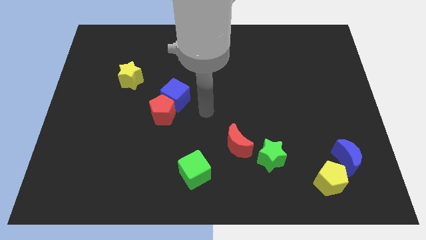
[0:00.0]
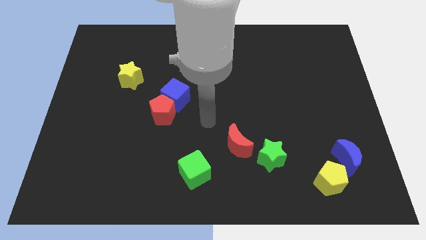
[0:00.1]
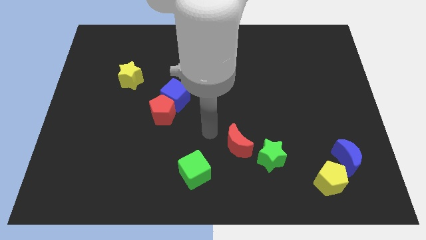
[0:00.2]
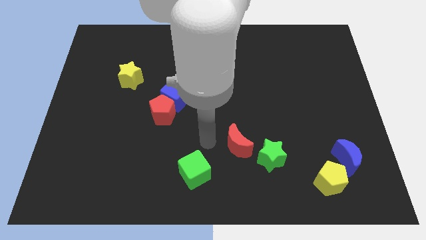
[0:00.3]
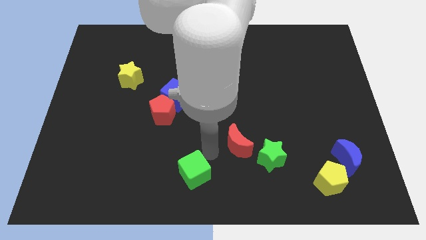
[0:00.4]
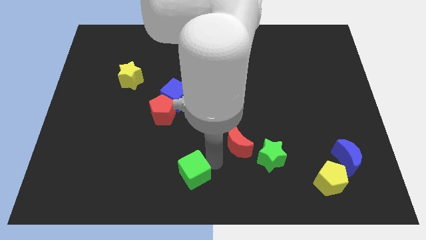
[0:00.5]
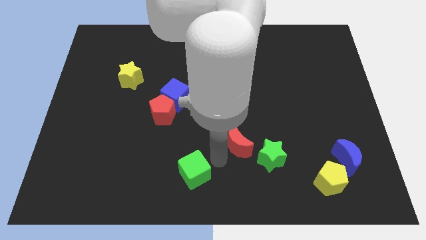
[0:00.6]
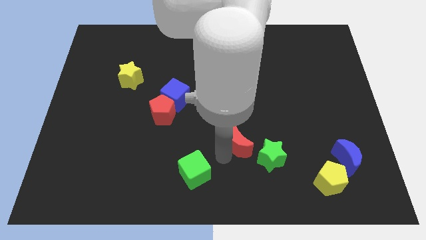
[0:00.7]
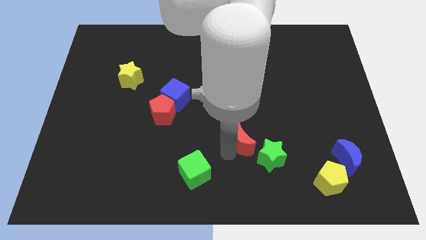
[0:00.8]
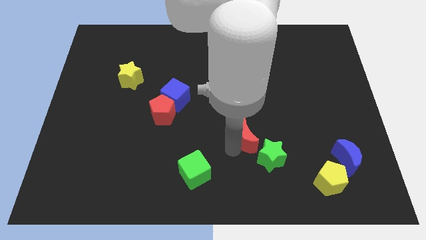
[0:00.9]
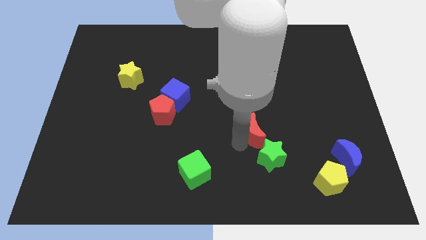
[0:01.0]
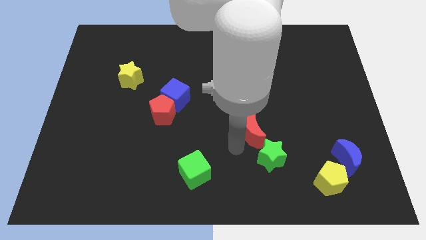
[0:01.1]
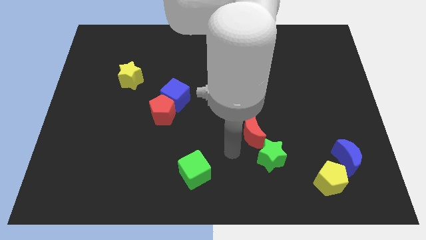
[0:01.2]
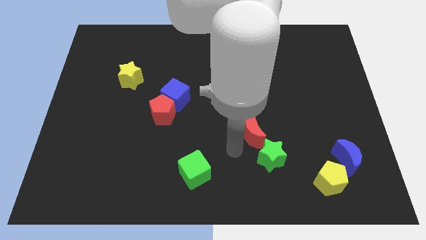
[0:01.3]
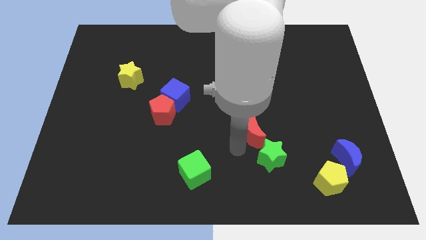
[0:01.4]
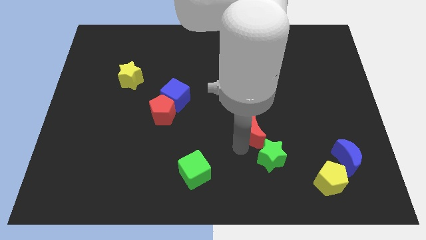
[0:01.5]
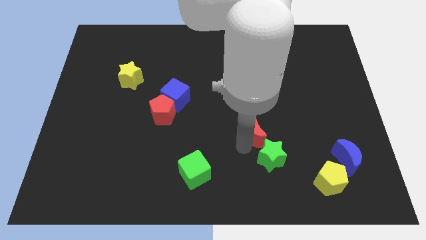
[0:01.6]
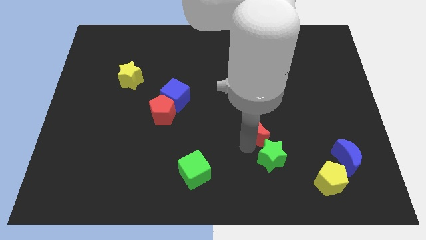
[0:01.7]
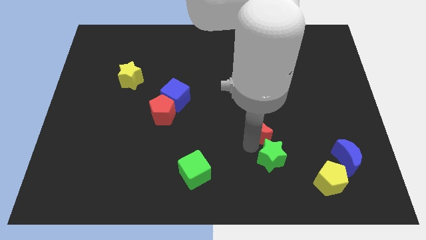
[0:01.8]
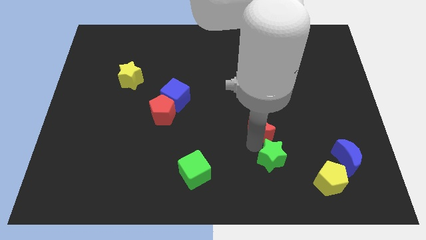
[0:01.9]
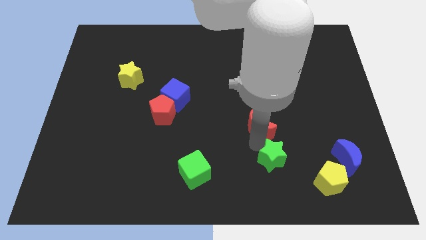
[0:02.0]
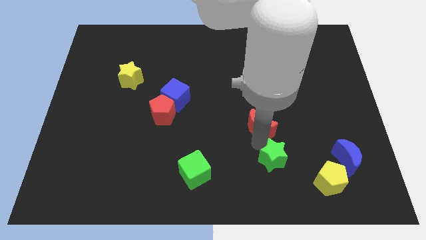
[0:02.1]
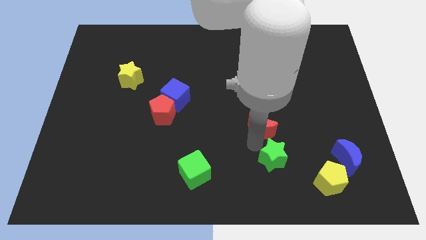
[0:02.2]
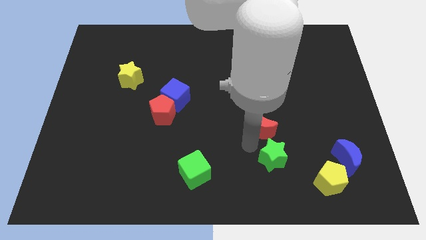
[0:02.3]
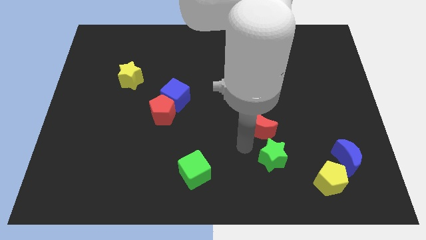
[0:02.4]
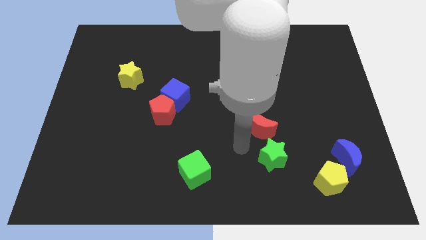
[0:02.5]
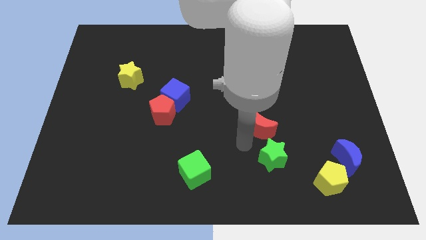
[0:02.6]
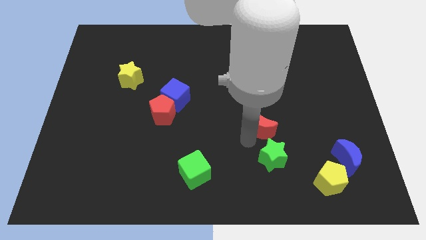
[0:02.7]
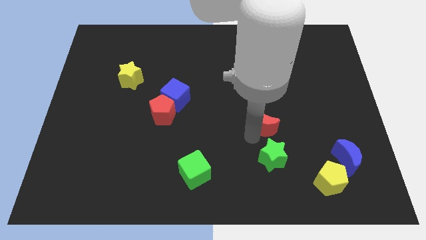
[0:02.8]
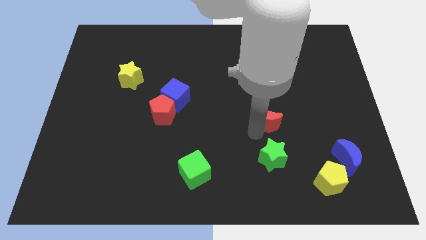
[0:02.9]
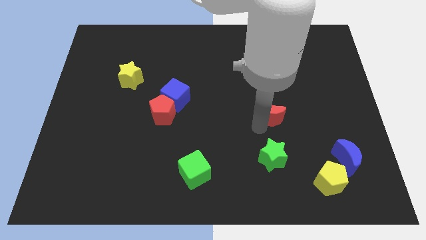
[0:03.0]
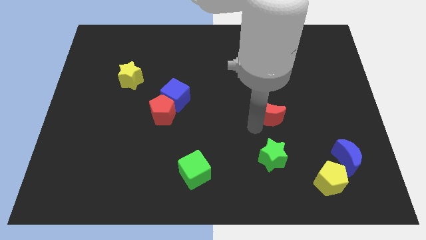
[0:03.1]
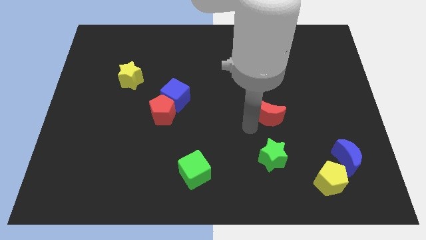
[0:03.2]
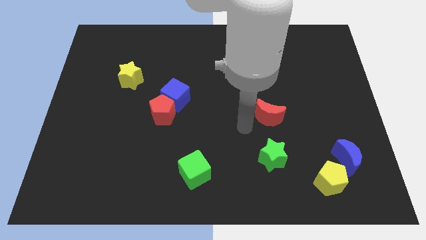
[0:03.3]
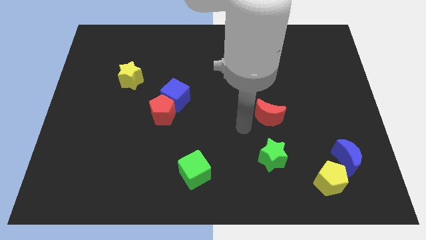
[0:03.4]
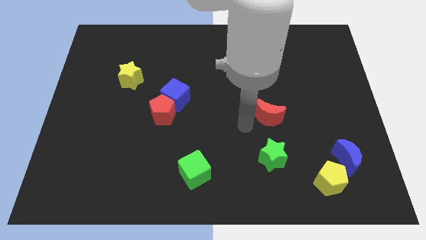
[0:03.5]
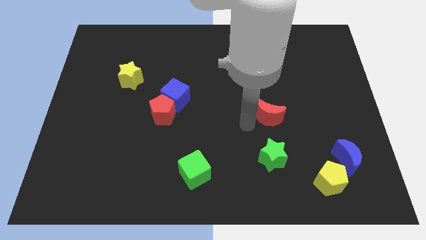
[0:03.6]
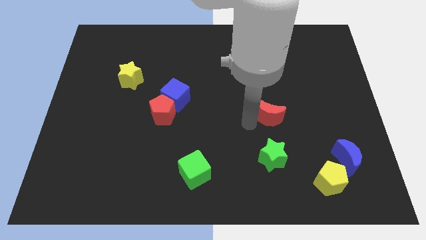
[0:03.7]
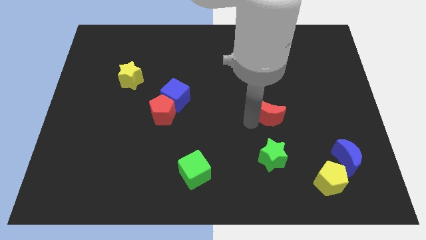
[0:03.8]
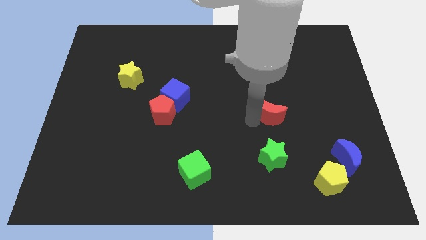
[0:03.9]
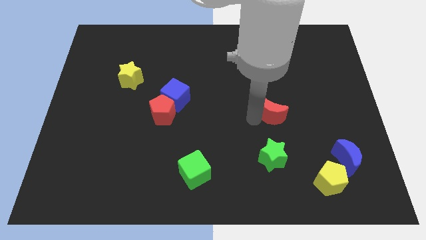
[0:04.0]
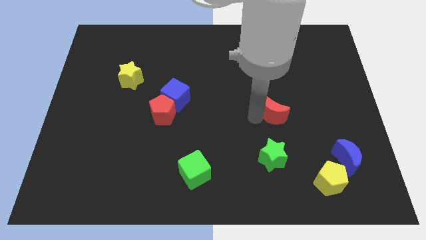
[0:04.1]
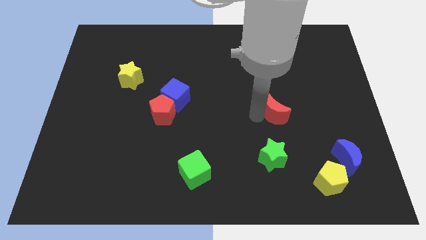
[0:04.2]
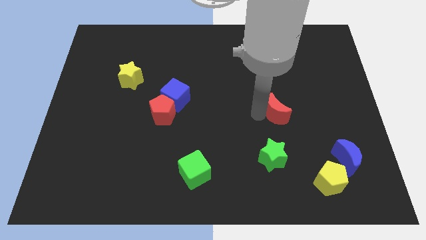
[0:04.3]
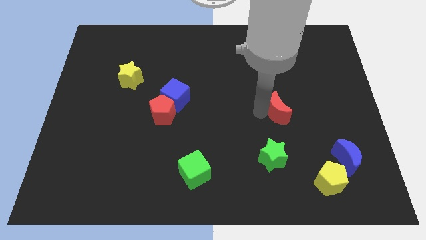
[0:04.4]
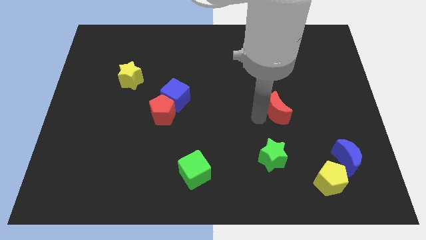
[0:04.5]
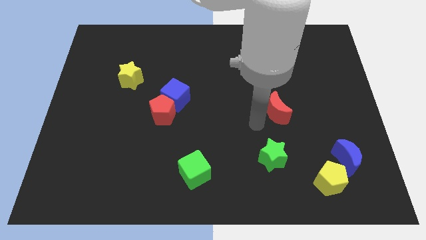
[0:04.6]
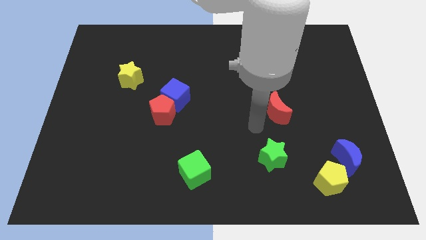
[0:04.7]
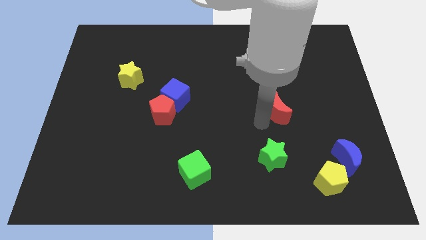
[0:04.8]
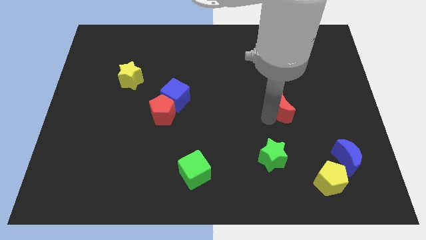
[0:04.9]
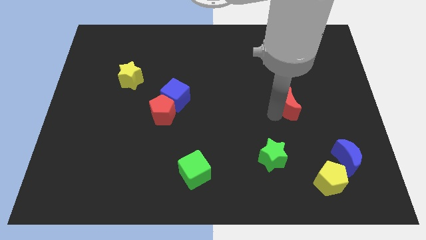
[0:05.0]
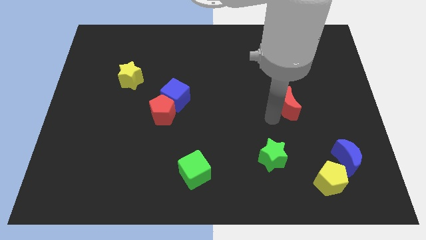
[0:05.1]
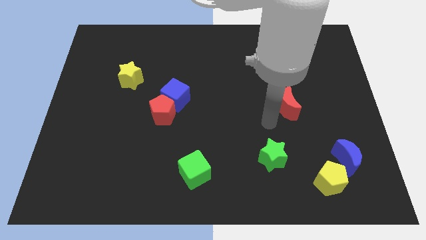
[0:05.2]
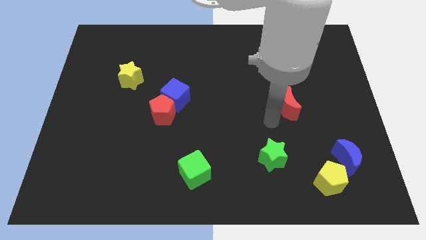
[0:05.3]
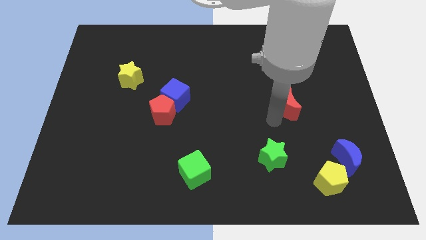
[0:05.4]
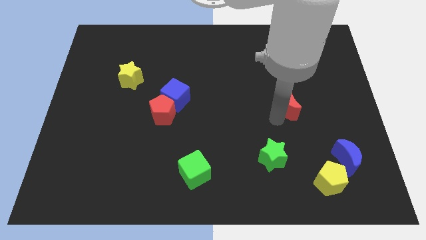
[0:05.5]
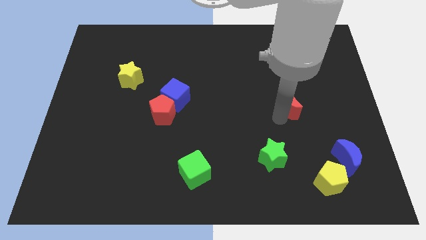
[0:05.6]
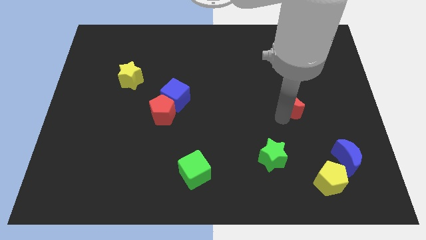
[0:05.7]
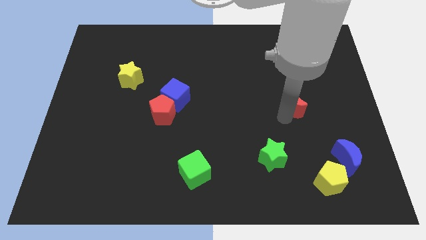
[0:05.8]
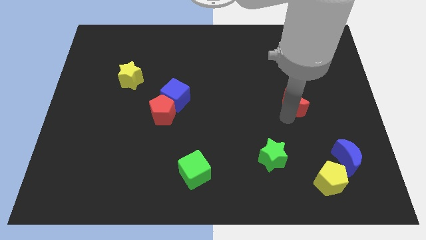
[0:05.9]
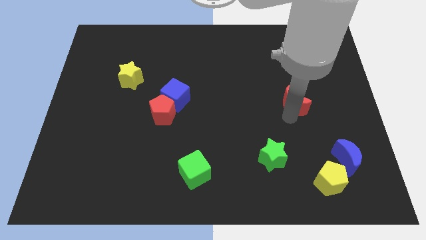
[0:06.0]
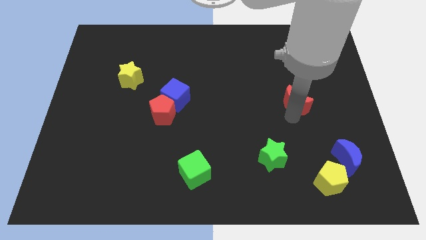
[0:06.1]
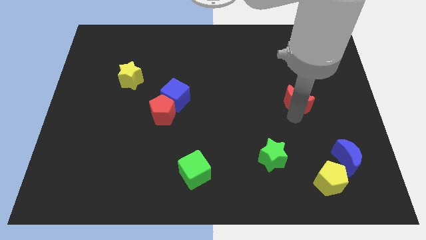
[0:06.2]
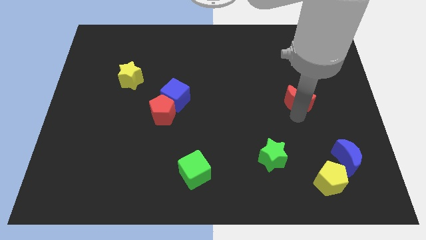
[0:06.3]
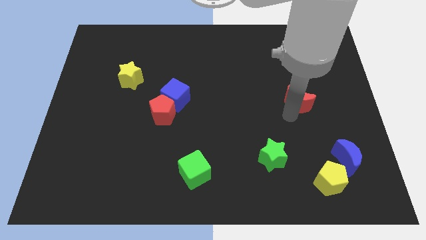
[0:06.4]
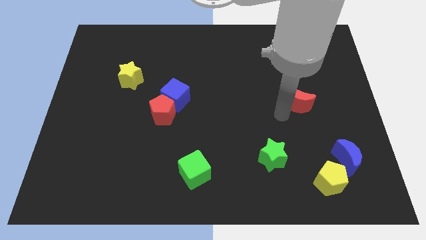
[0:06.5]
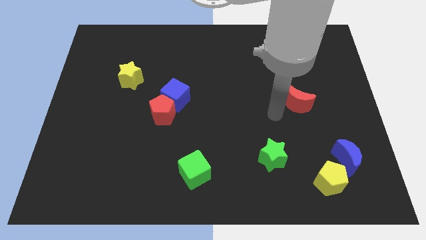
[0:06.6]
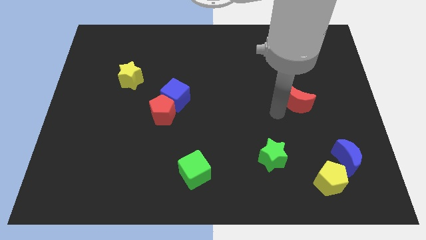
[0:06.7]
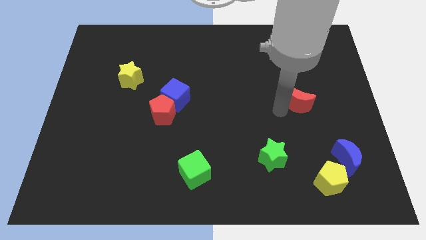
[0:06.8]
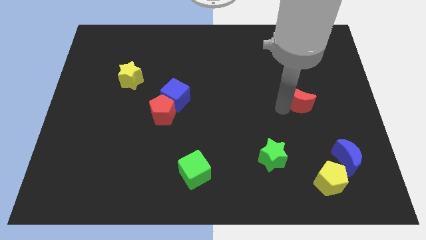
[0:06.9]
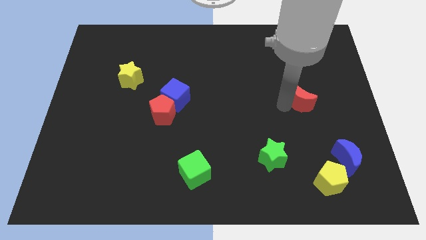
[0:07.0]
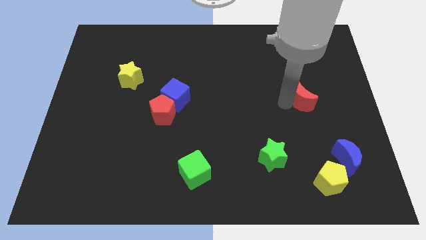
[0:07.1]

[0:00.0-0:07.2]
push the red moon diagonally up and right

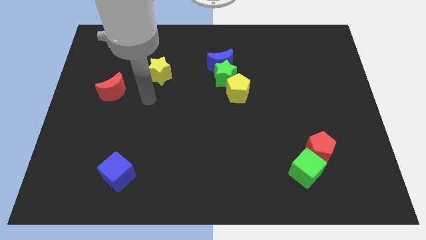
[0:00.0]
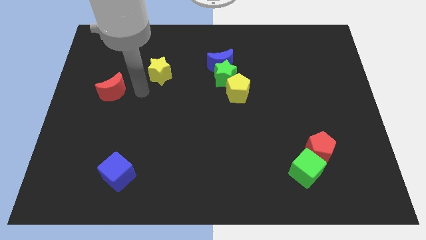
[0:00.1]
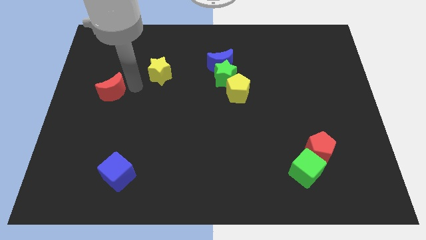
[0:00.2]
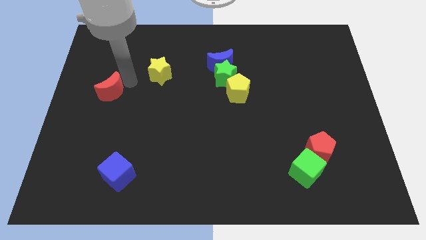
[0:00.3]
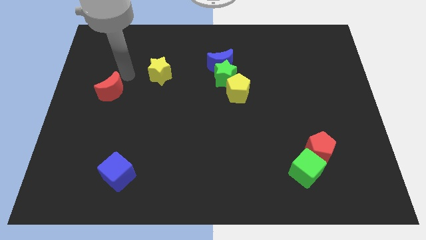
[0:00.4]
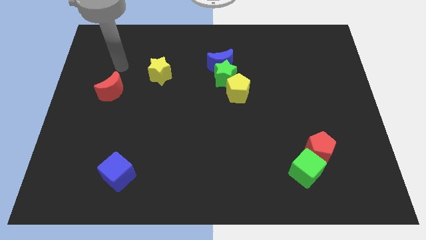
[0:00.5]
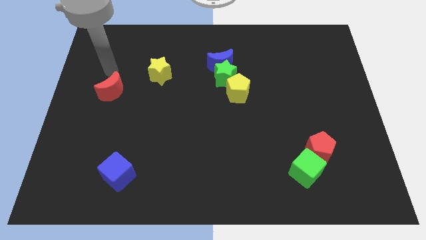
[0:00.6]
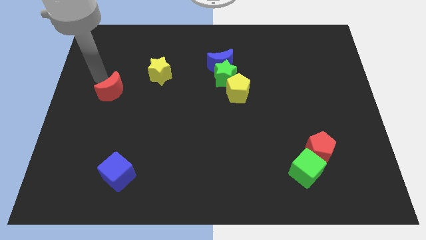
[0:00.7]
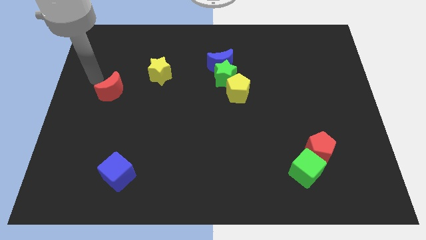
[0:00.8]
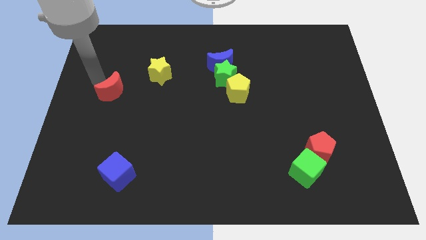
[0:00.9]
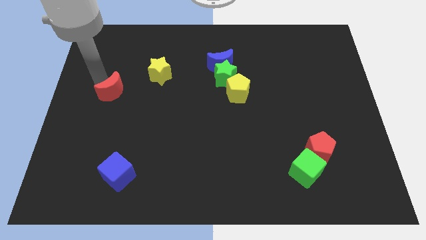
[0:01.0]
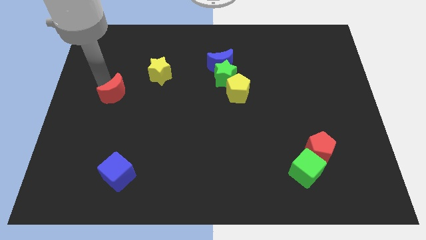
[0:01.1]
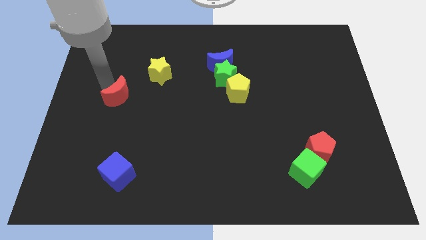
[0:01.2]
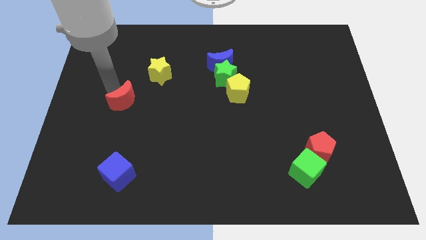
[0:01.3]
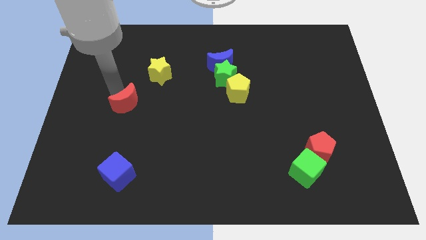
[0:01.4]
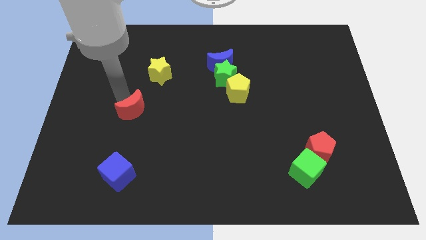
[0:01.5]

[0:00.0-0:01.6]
slide the red moon down and right somewhat
